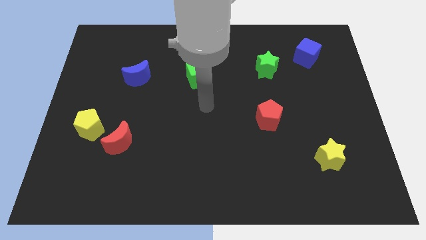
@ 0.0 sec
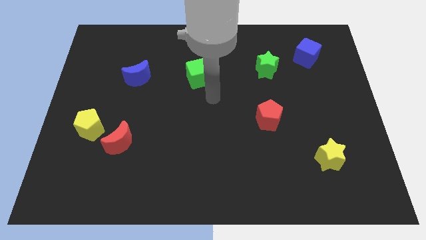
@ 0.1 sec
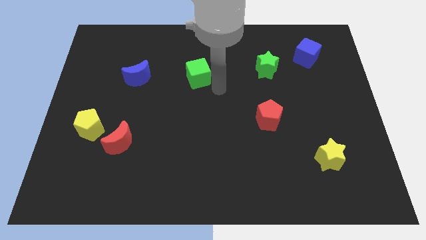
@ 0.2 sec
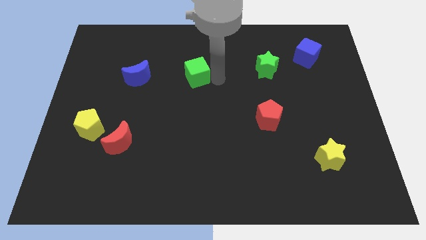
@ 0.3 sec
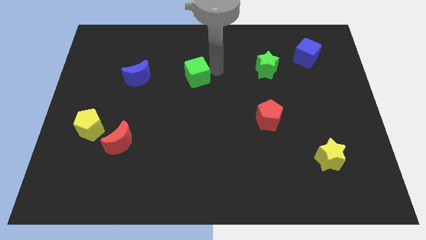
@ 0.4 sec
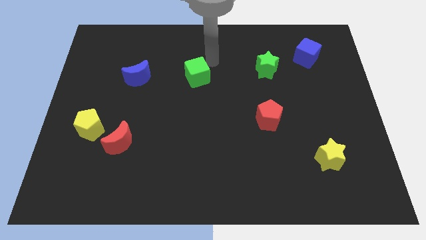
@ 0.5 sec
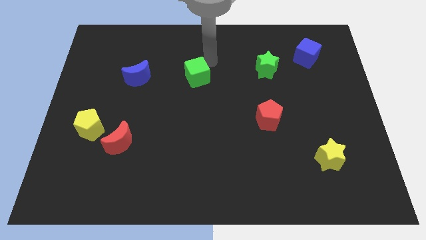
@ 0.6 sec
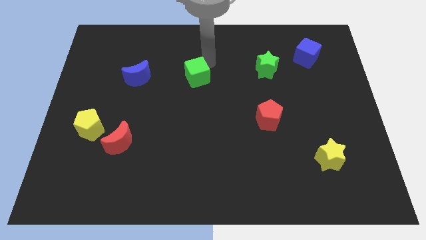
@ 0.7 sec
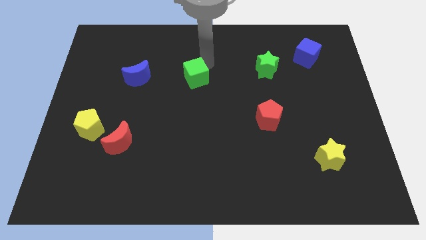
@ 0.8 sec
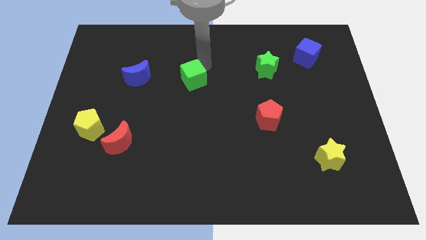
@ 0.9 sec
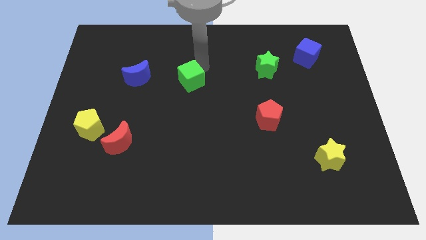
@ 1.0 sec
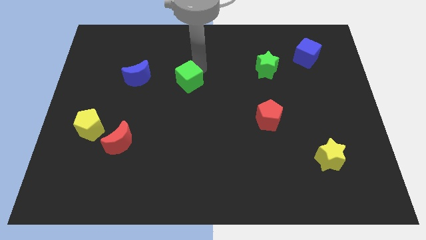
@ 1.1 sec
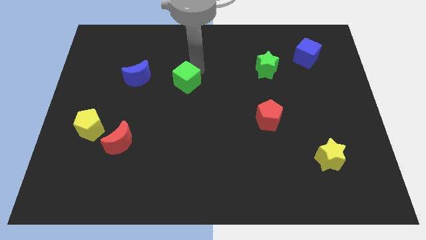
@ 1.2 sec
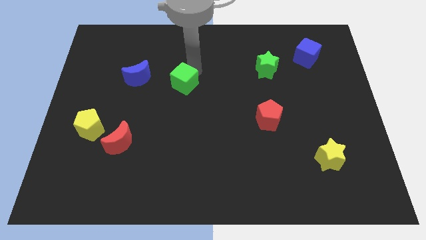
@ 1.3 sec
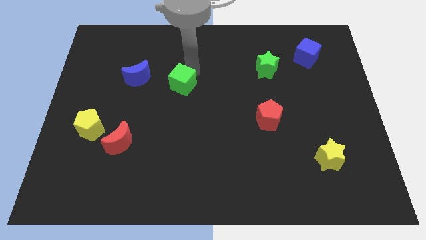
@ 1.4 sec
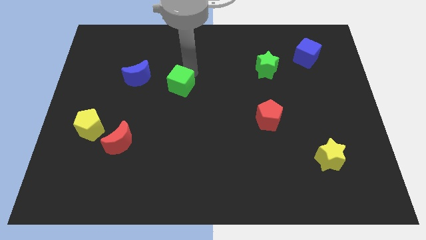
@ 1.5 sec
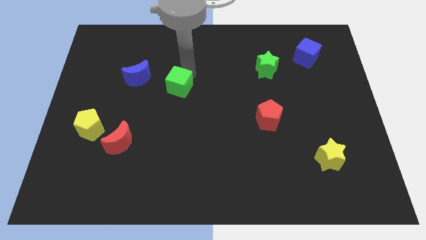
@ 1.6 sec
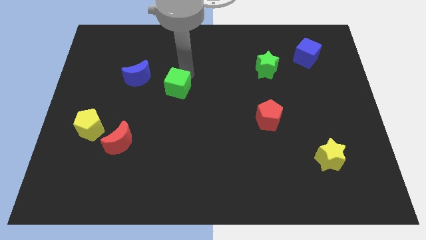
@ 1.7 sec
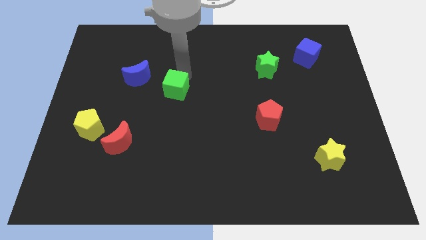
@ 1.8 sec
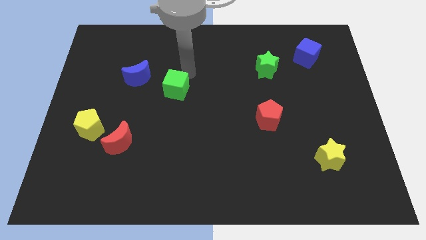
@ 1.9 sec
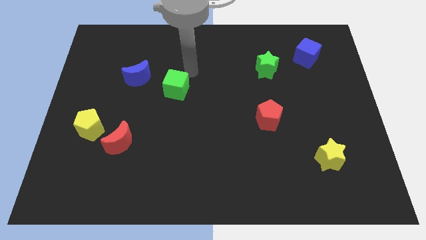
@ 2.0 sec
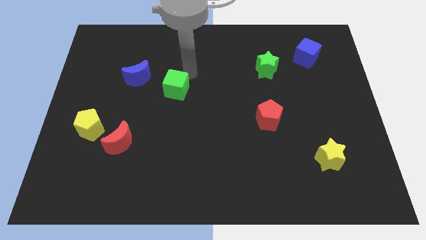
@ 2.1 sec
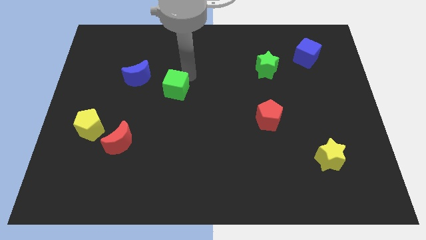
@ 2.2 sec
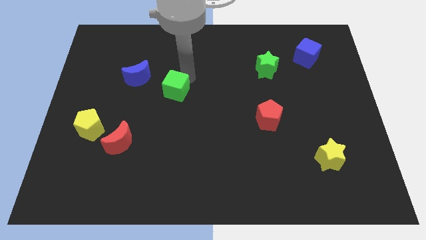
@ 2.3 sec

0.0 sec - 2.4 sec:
slide the green cube downwards and left diagonally a little bit

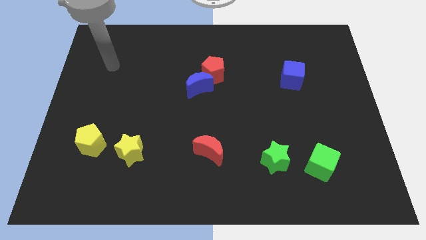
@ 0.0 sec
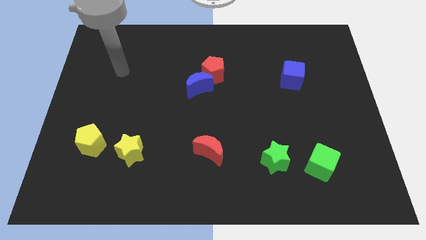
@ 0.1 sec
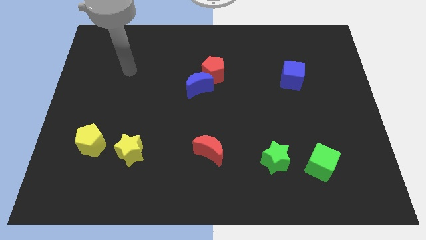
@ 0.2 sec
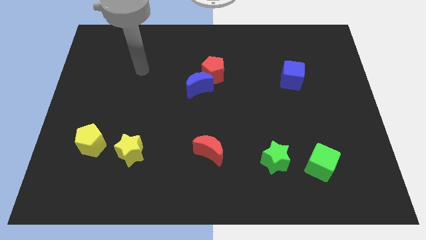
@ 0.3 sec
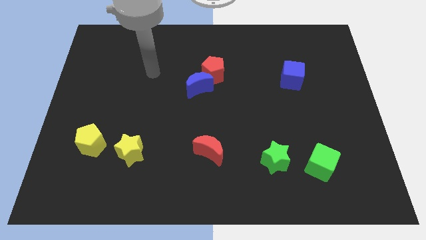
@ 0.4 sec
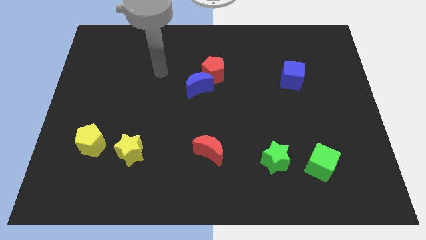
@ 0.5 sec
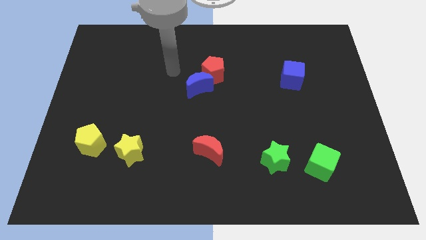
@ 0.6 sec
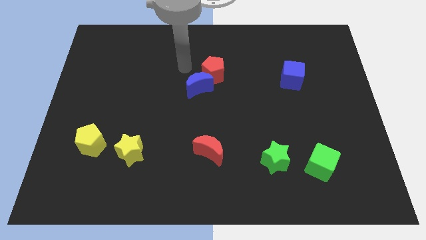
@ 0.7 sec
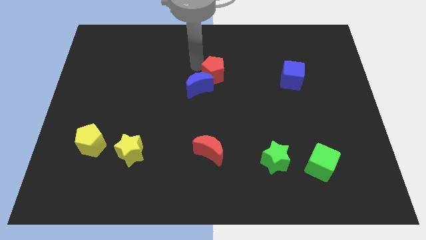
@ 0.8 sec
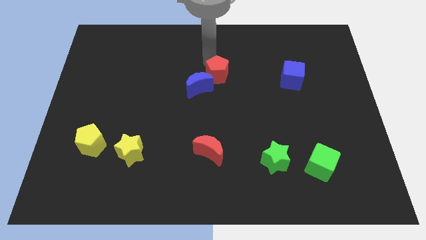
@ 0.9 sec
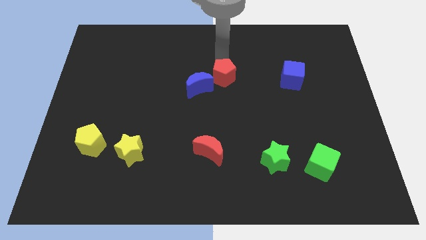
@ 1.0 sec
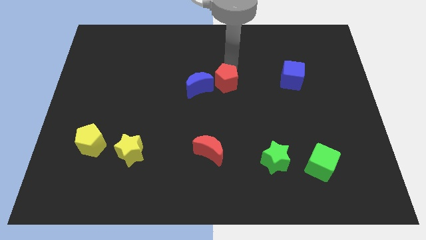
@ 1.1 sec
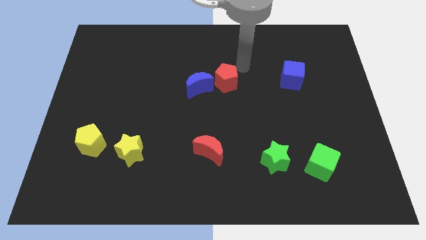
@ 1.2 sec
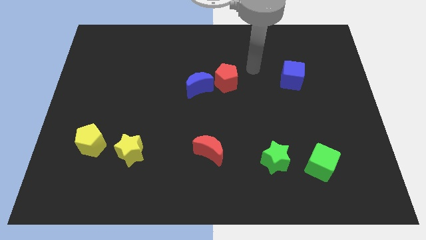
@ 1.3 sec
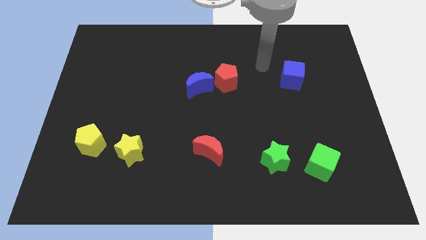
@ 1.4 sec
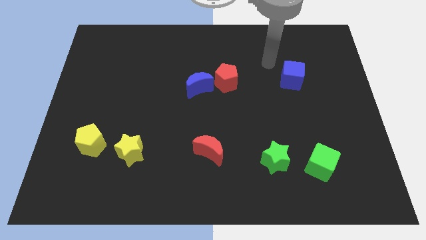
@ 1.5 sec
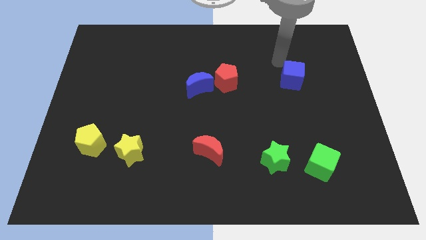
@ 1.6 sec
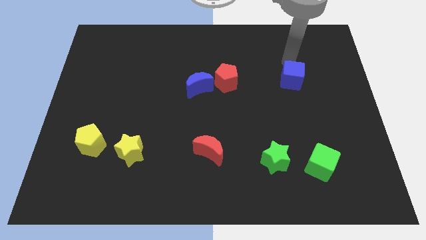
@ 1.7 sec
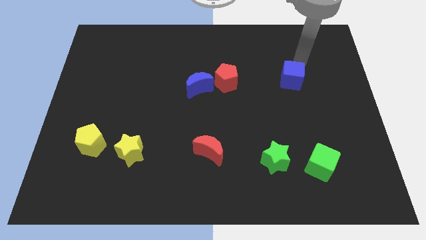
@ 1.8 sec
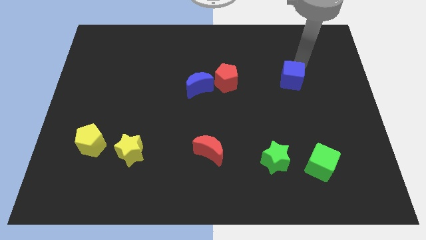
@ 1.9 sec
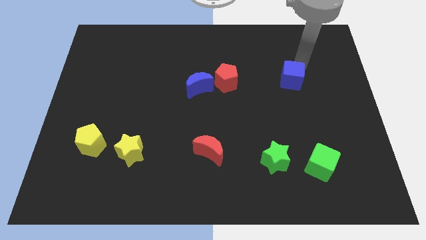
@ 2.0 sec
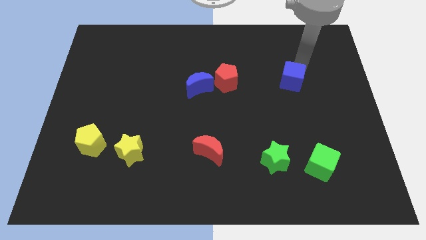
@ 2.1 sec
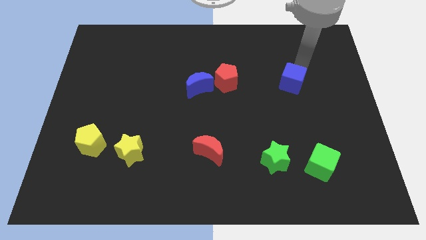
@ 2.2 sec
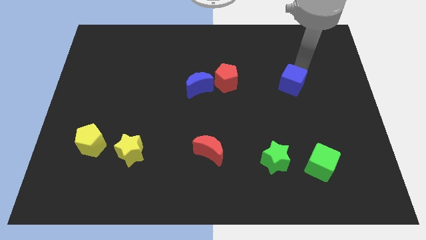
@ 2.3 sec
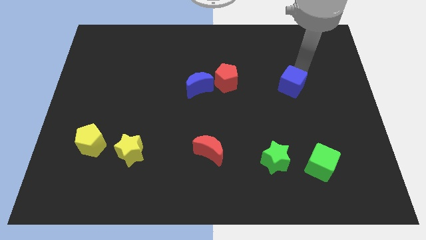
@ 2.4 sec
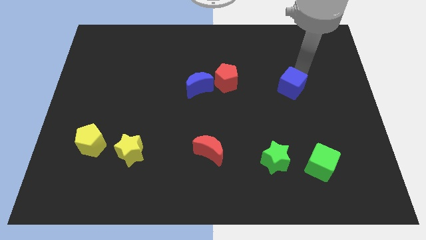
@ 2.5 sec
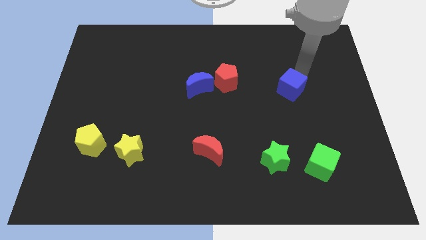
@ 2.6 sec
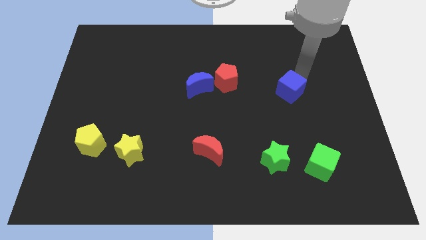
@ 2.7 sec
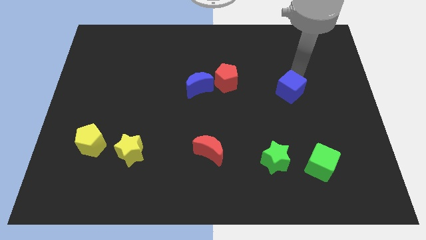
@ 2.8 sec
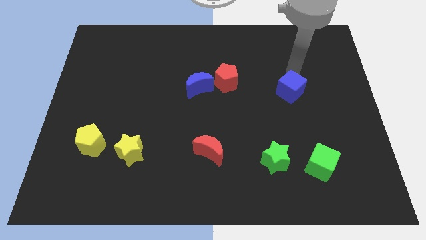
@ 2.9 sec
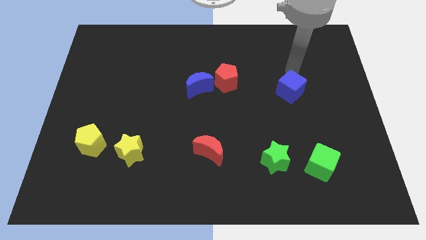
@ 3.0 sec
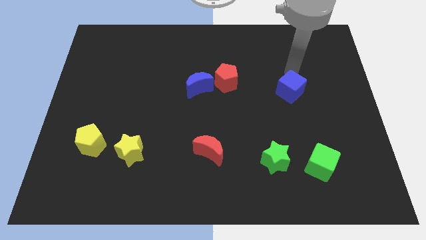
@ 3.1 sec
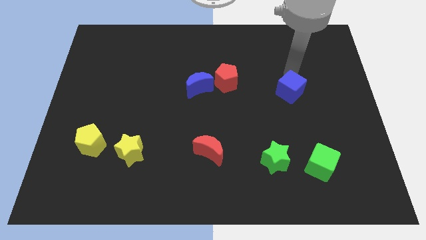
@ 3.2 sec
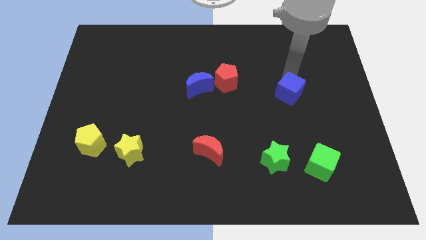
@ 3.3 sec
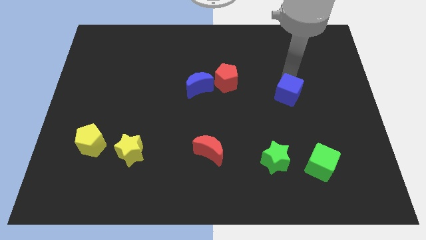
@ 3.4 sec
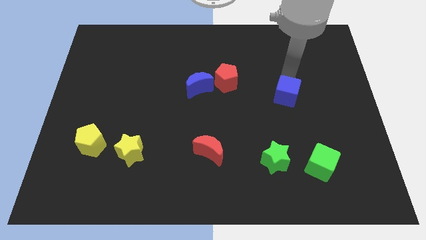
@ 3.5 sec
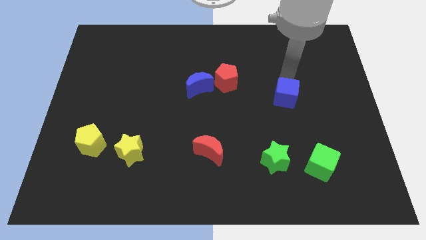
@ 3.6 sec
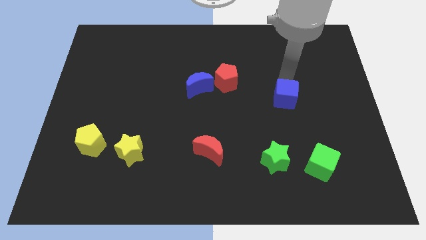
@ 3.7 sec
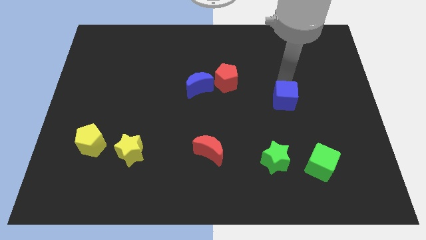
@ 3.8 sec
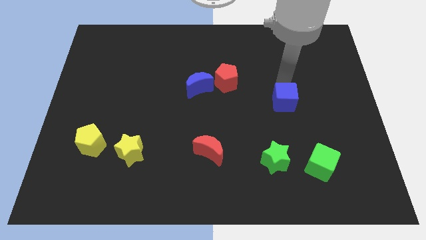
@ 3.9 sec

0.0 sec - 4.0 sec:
slightly slide the blue cube down

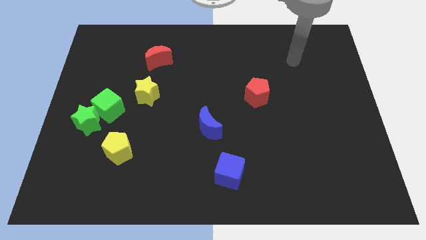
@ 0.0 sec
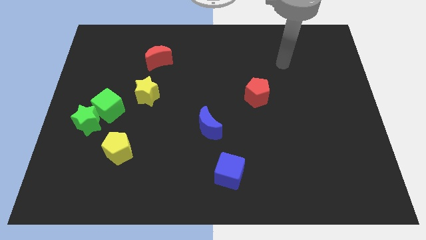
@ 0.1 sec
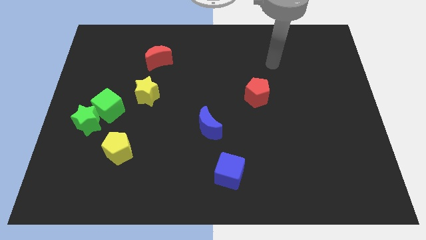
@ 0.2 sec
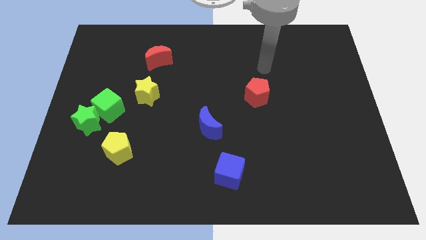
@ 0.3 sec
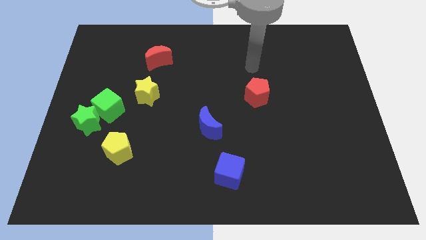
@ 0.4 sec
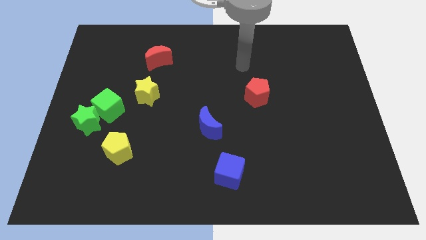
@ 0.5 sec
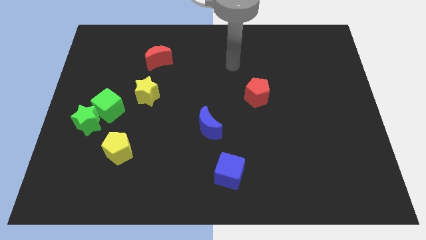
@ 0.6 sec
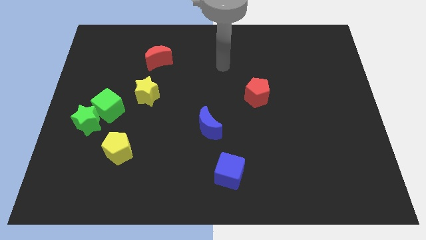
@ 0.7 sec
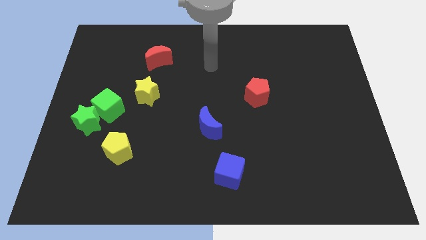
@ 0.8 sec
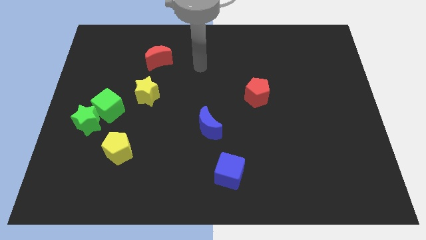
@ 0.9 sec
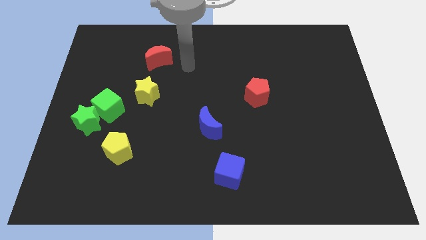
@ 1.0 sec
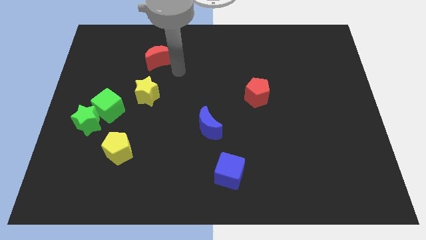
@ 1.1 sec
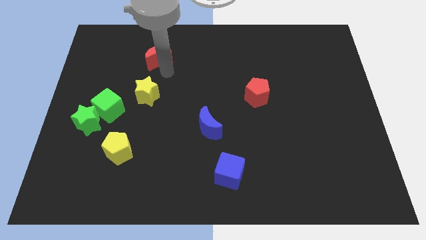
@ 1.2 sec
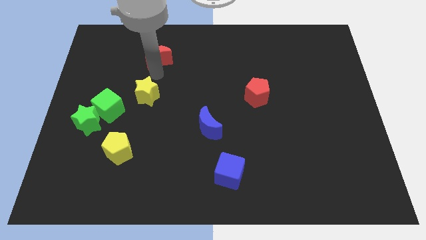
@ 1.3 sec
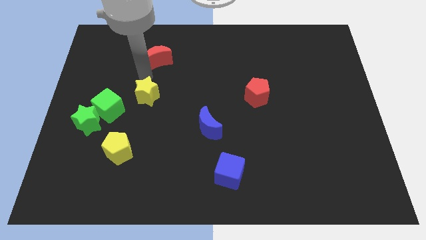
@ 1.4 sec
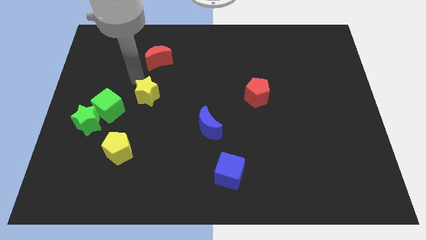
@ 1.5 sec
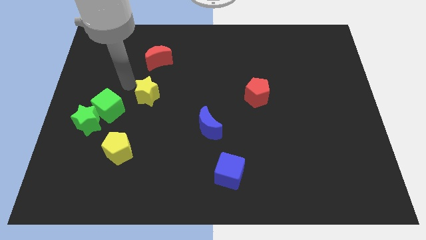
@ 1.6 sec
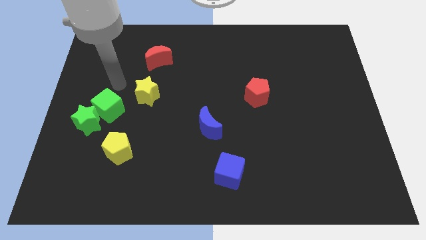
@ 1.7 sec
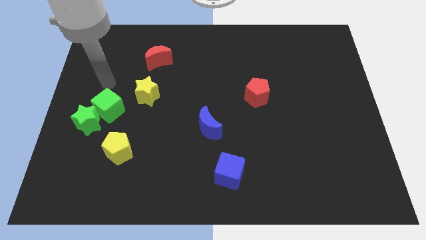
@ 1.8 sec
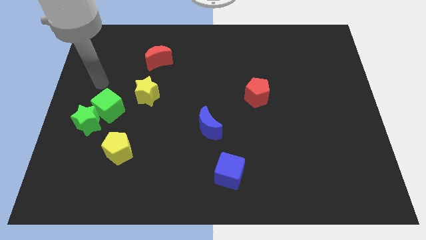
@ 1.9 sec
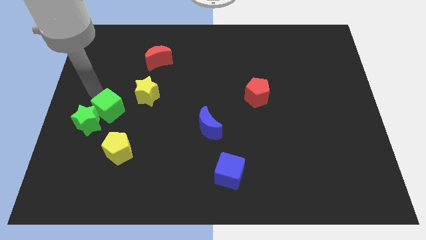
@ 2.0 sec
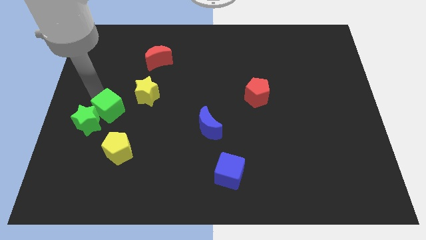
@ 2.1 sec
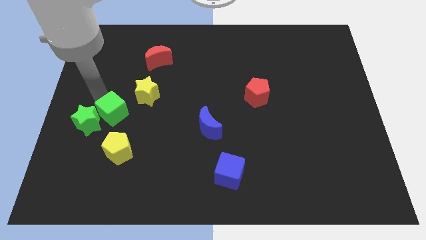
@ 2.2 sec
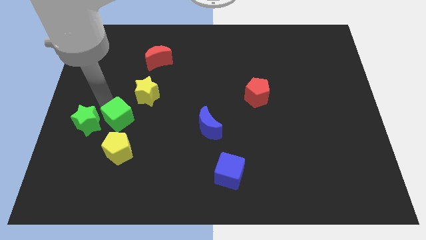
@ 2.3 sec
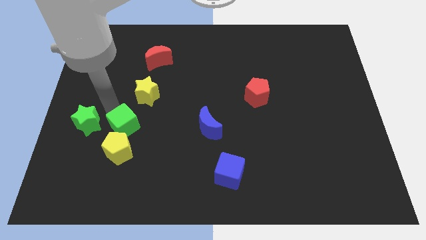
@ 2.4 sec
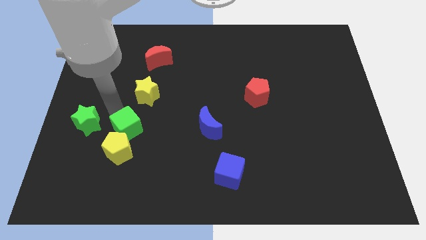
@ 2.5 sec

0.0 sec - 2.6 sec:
slightly move the green cube down and right diagonally
